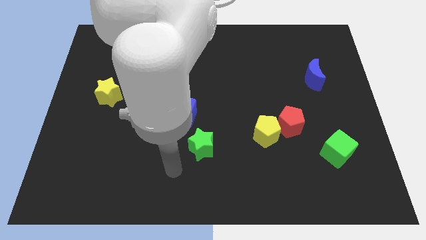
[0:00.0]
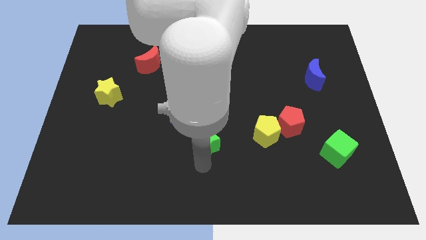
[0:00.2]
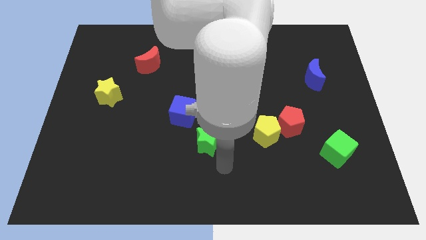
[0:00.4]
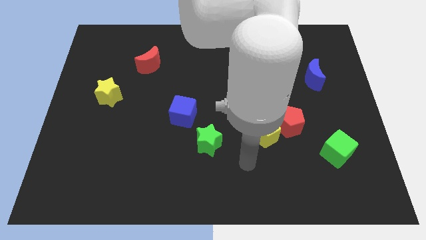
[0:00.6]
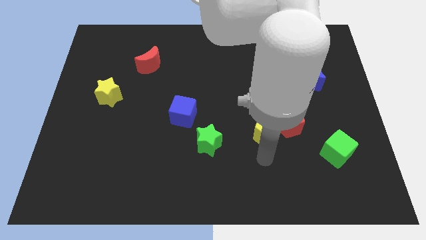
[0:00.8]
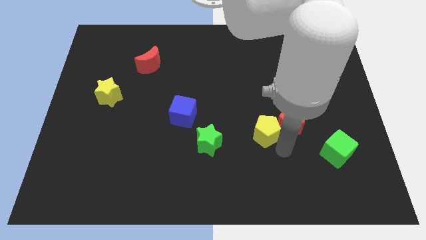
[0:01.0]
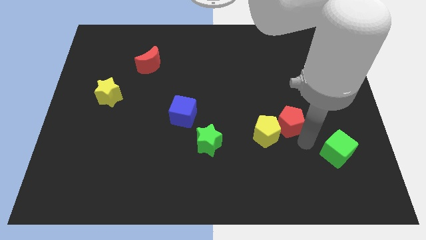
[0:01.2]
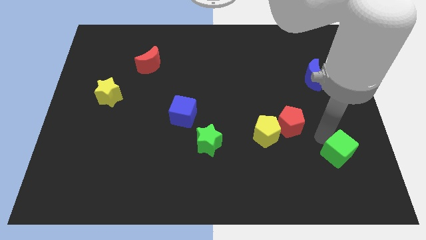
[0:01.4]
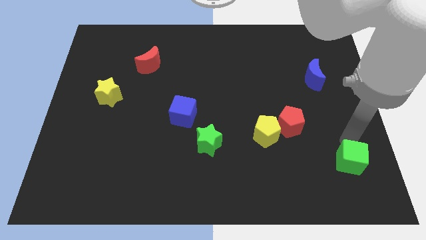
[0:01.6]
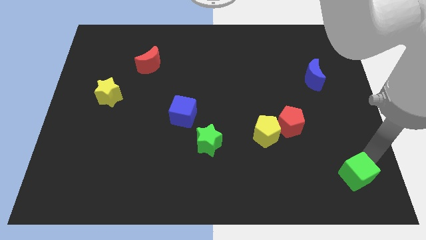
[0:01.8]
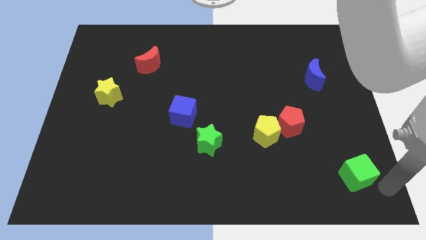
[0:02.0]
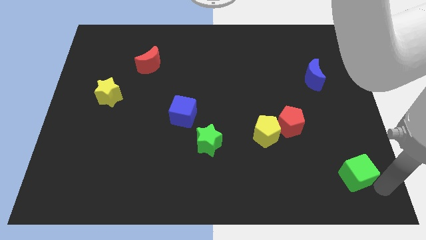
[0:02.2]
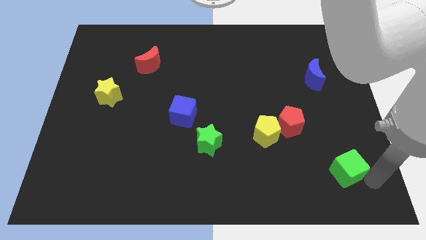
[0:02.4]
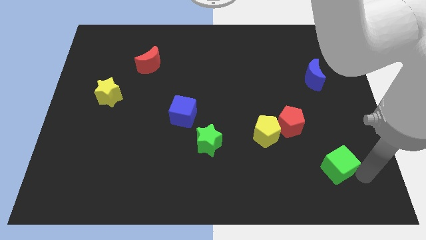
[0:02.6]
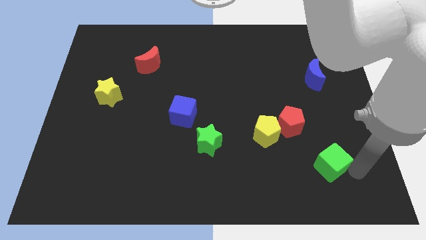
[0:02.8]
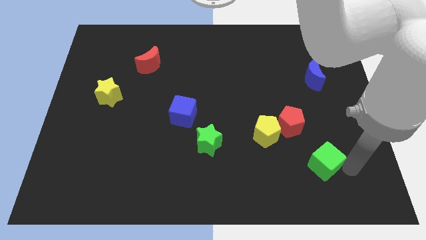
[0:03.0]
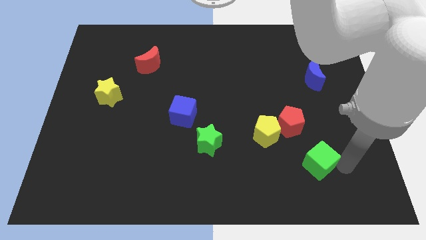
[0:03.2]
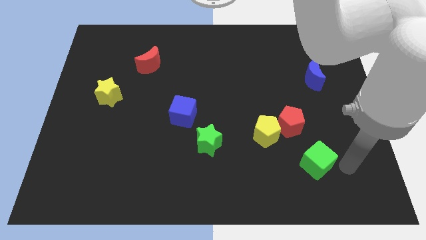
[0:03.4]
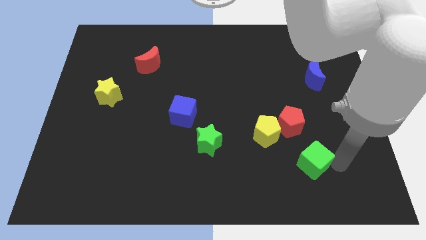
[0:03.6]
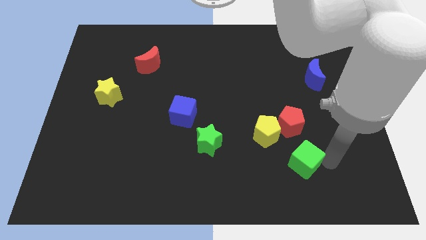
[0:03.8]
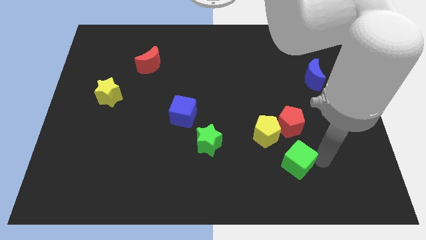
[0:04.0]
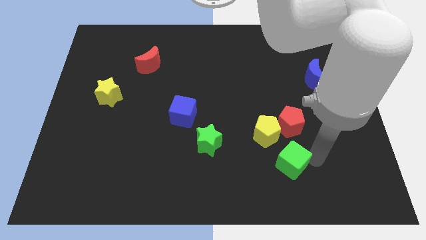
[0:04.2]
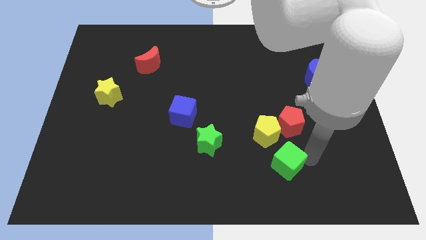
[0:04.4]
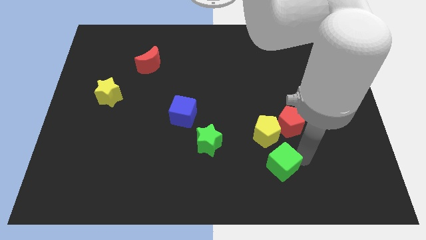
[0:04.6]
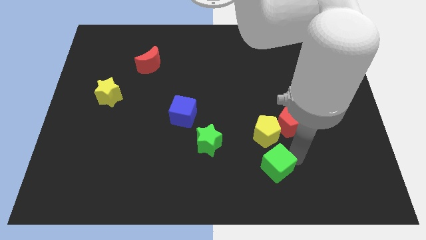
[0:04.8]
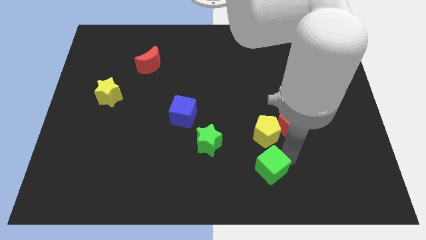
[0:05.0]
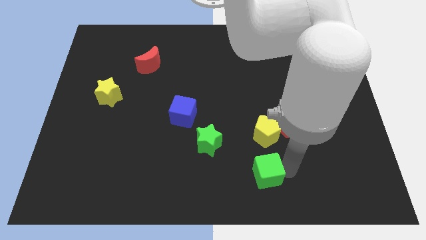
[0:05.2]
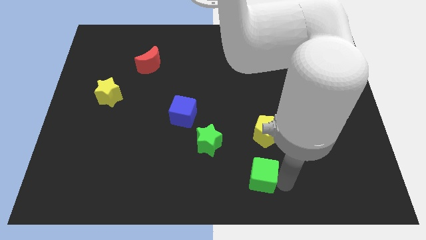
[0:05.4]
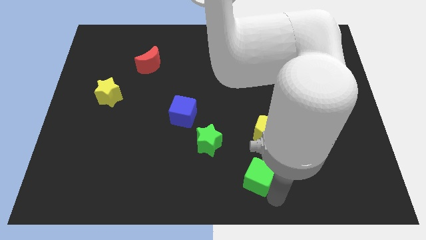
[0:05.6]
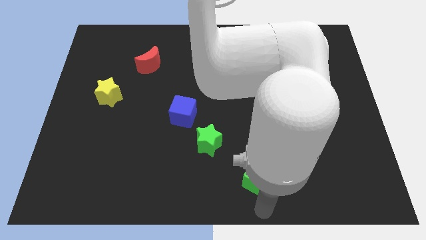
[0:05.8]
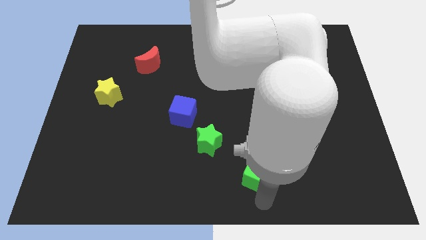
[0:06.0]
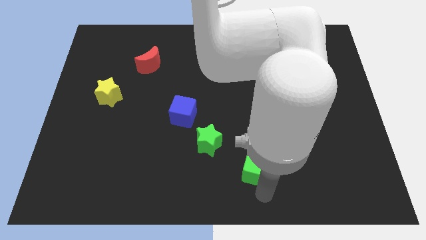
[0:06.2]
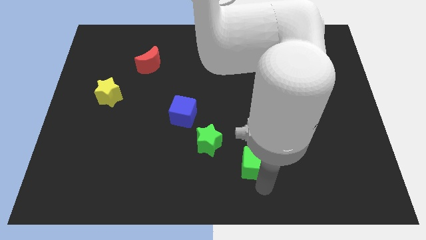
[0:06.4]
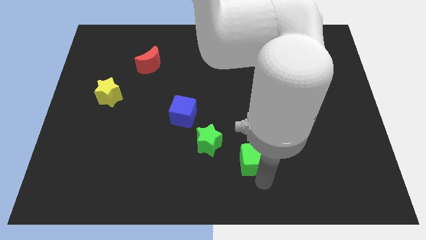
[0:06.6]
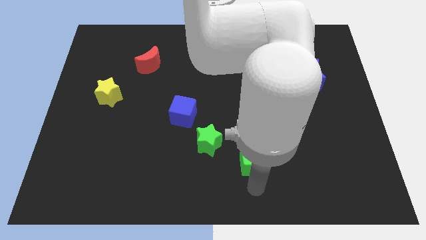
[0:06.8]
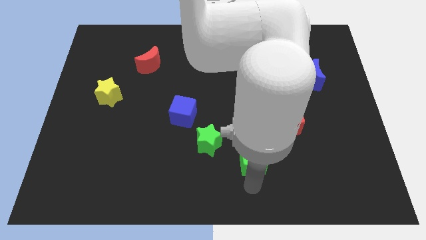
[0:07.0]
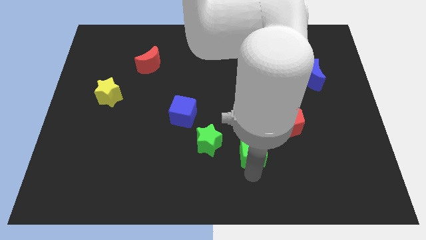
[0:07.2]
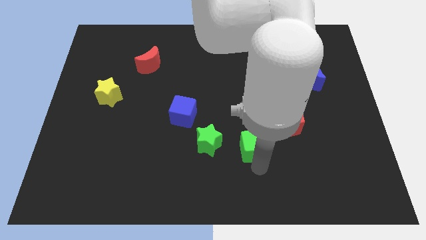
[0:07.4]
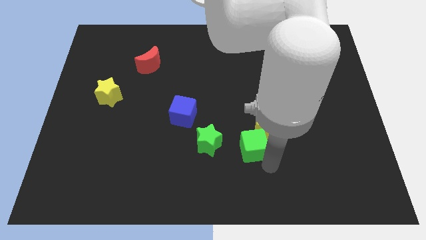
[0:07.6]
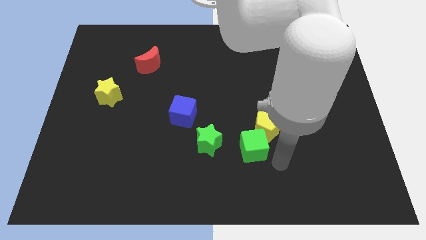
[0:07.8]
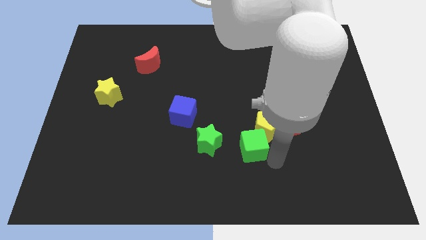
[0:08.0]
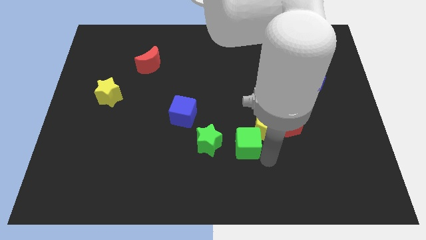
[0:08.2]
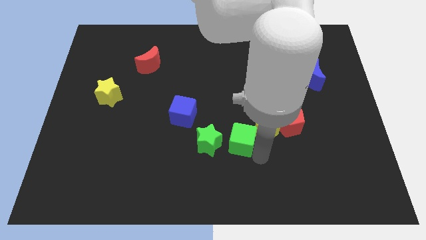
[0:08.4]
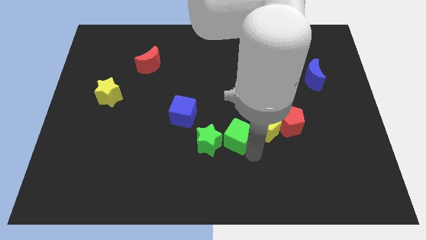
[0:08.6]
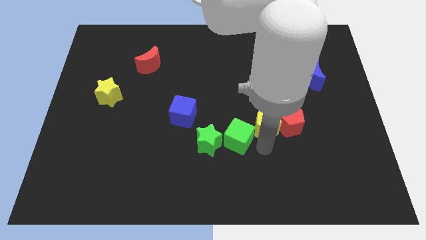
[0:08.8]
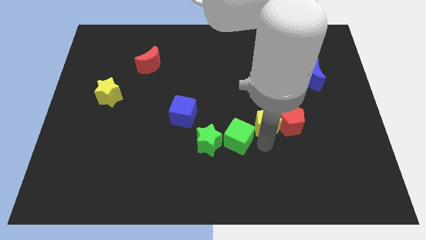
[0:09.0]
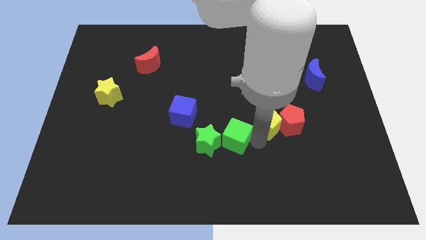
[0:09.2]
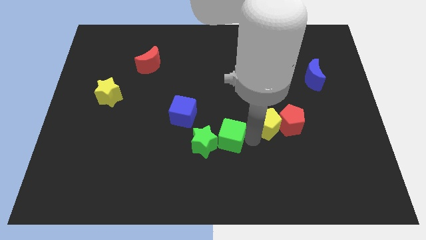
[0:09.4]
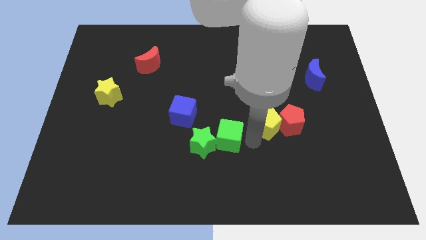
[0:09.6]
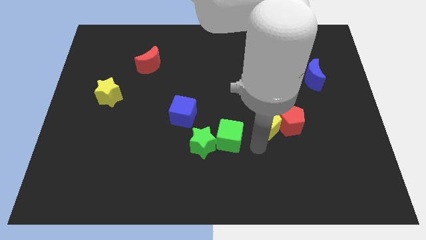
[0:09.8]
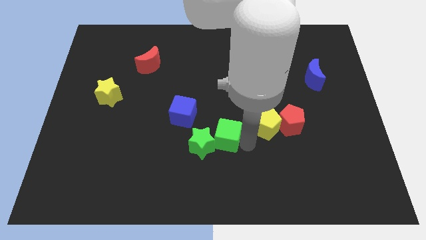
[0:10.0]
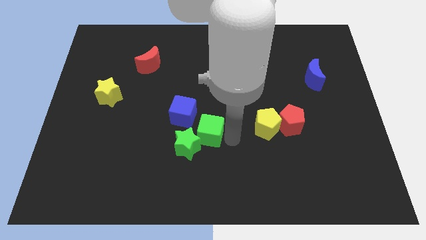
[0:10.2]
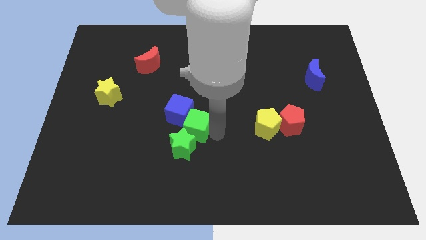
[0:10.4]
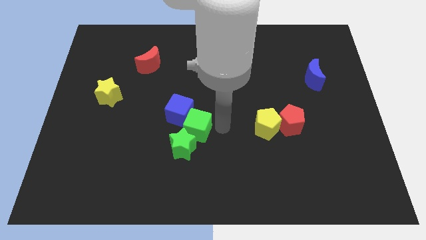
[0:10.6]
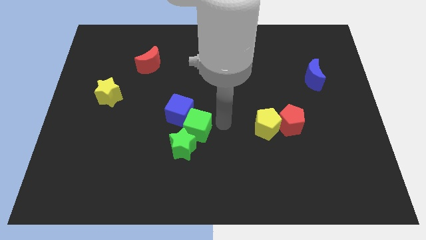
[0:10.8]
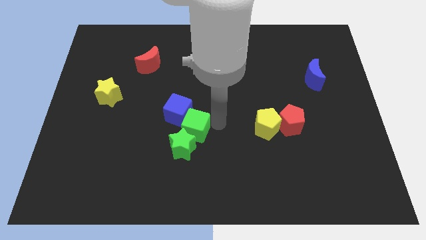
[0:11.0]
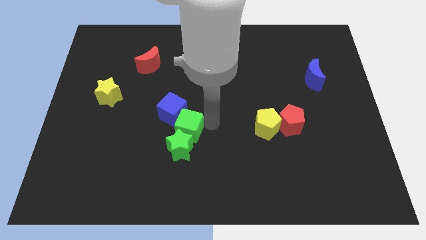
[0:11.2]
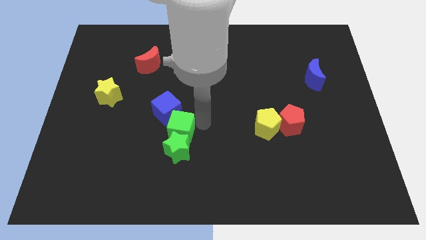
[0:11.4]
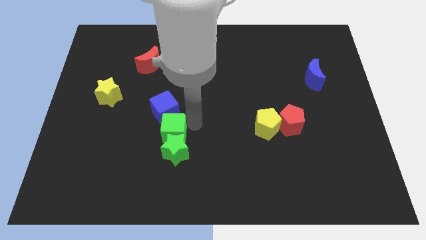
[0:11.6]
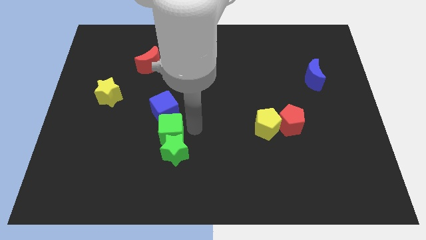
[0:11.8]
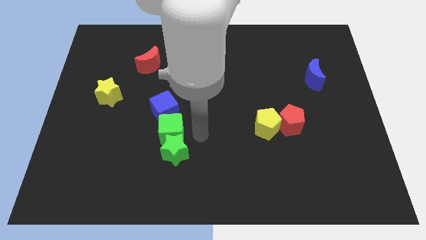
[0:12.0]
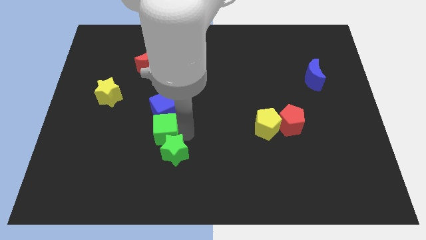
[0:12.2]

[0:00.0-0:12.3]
push the green cube to the bottom left side of the blue cube

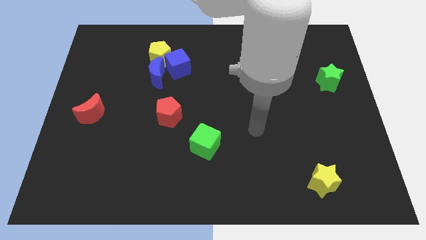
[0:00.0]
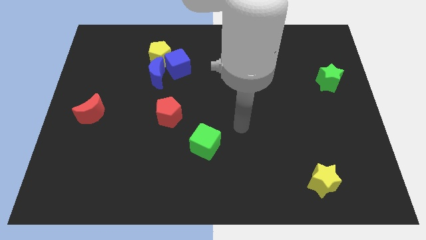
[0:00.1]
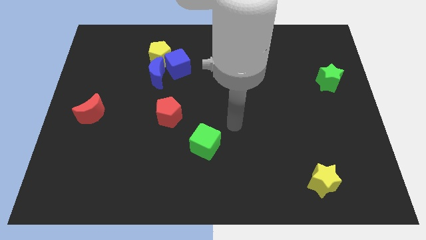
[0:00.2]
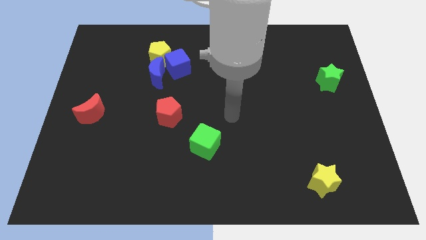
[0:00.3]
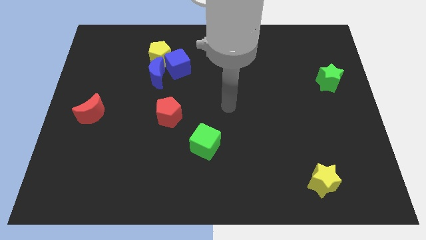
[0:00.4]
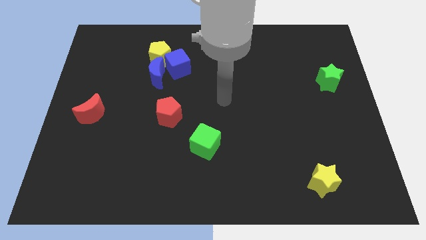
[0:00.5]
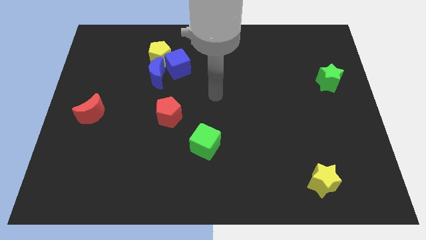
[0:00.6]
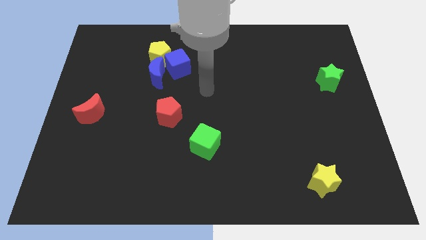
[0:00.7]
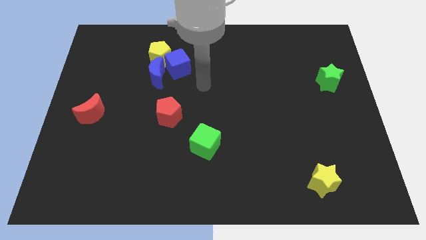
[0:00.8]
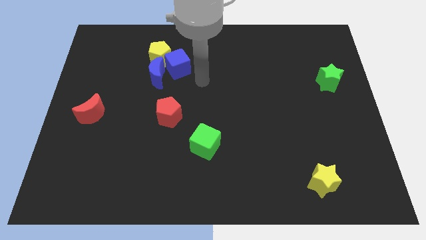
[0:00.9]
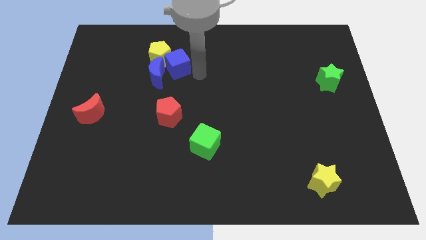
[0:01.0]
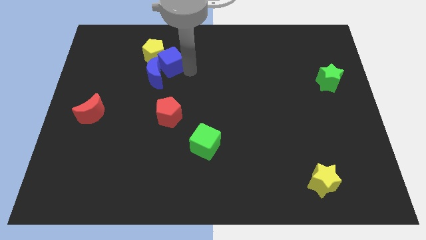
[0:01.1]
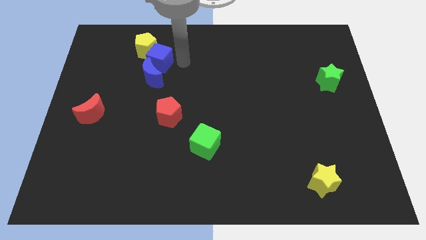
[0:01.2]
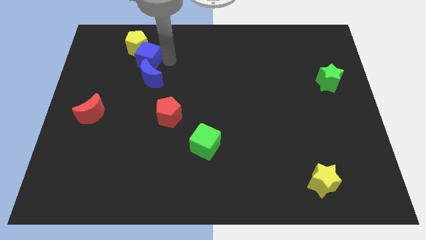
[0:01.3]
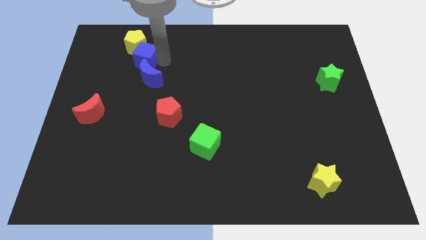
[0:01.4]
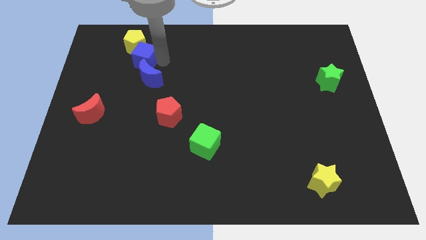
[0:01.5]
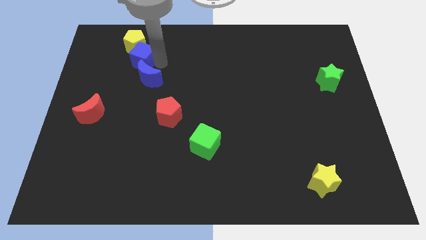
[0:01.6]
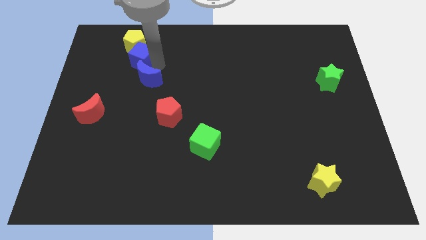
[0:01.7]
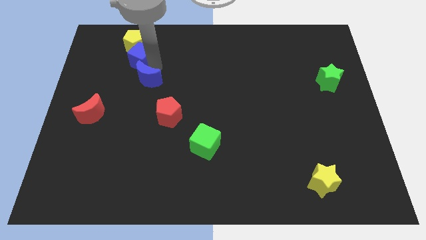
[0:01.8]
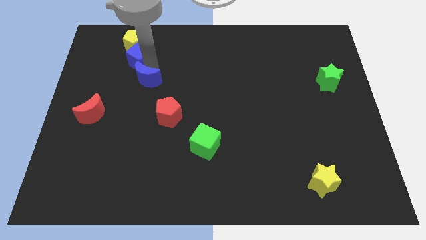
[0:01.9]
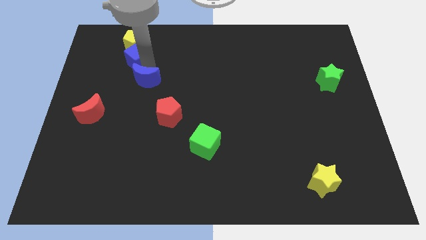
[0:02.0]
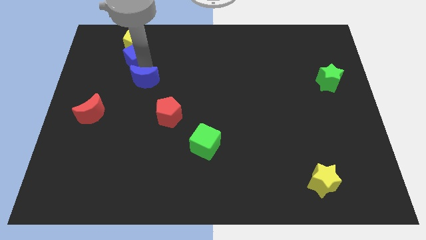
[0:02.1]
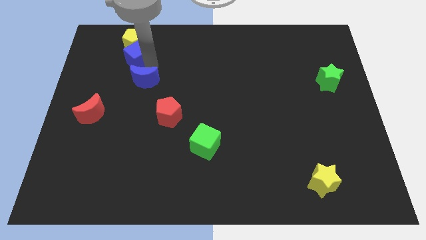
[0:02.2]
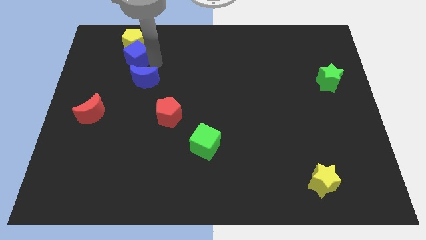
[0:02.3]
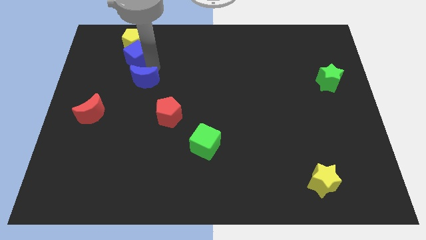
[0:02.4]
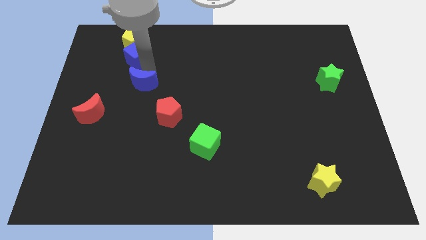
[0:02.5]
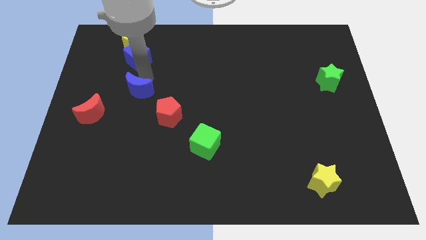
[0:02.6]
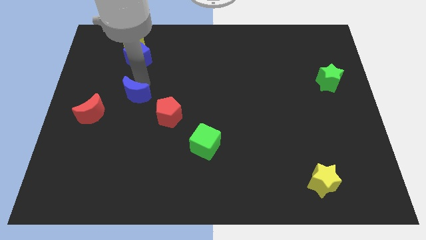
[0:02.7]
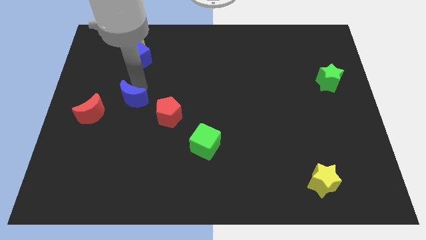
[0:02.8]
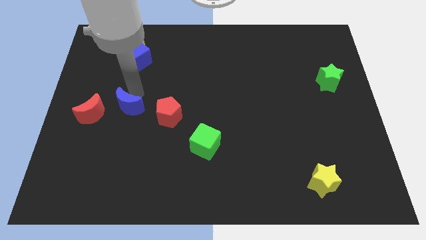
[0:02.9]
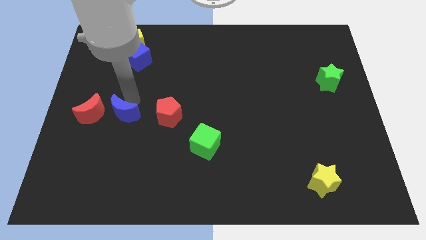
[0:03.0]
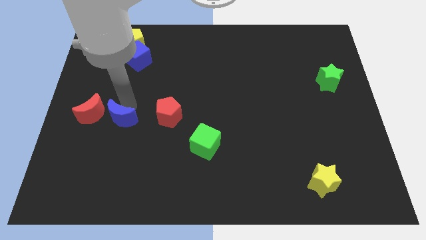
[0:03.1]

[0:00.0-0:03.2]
put the blue moon to the bottom right side of the red moon
